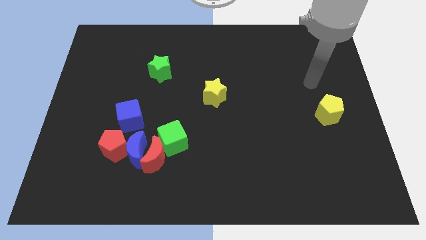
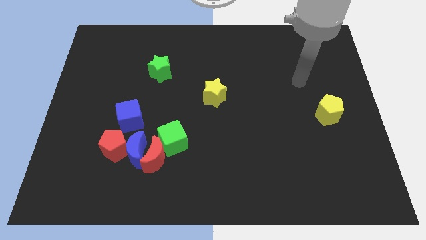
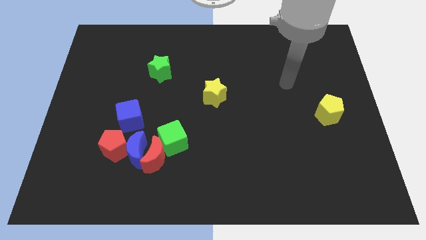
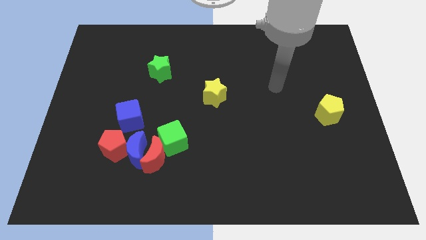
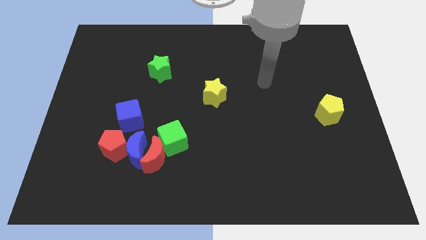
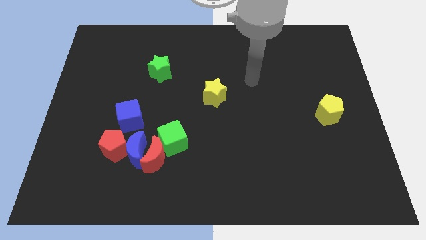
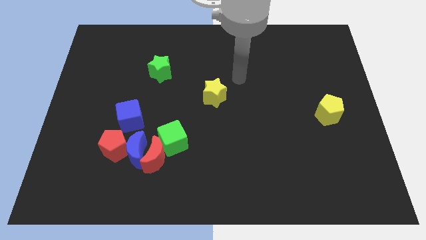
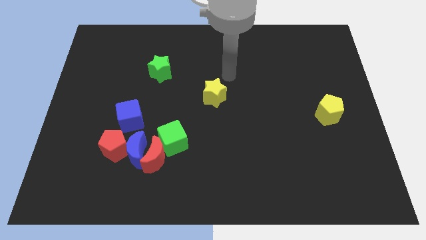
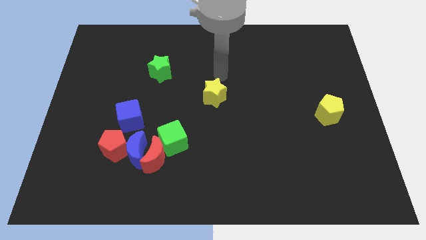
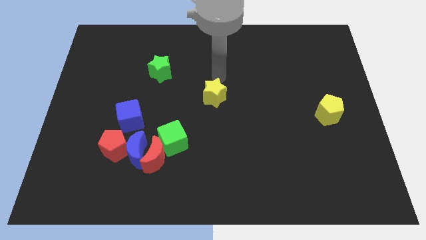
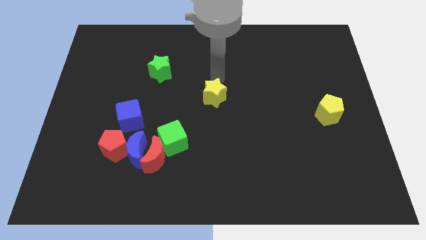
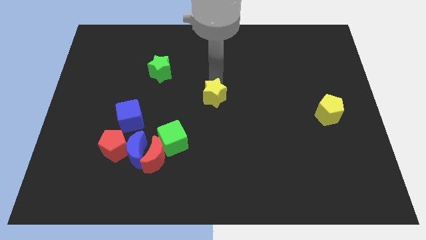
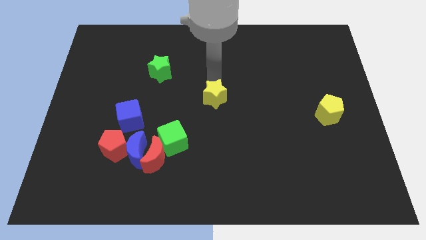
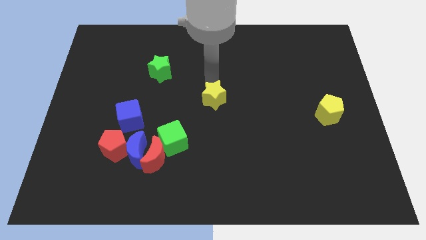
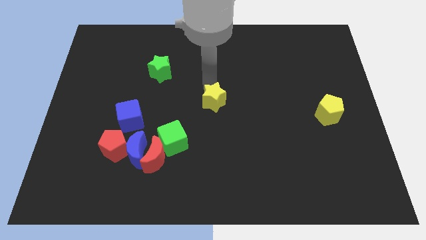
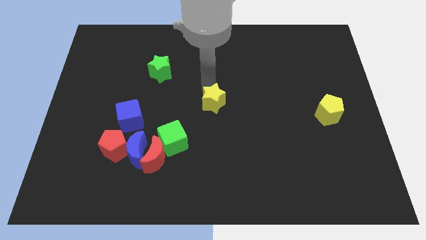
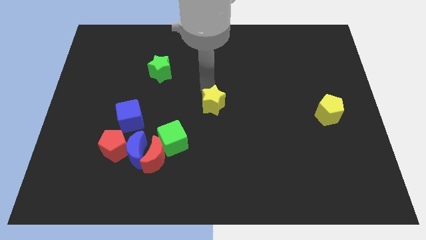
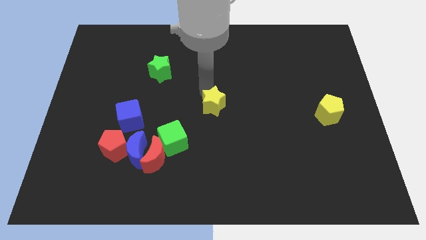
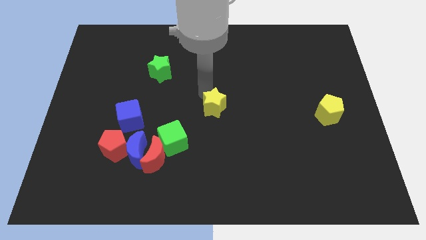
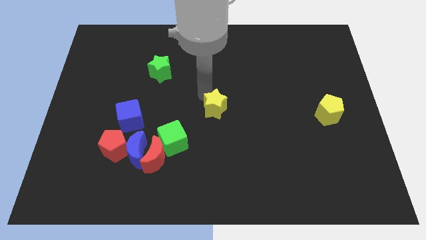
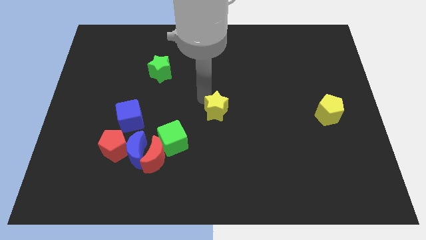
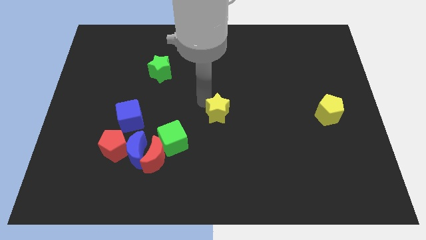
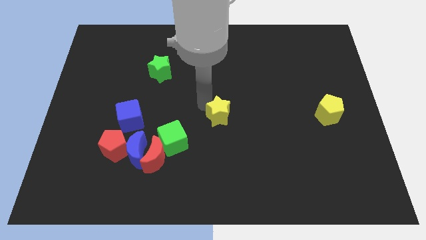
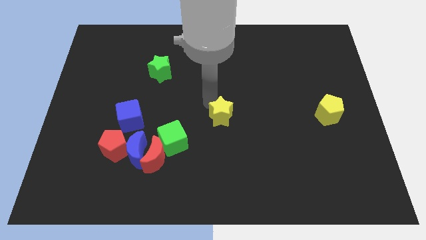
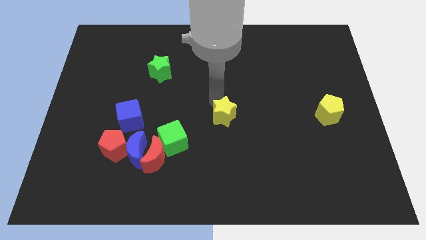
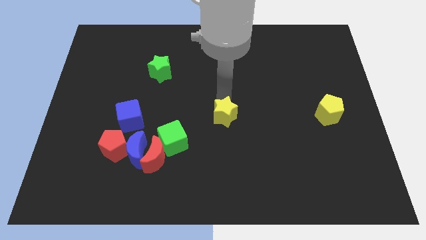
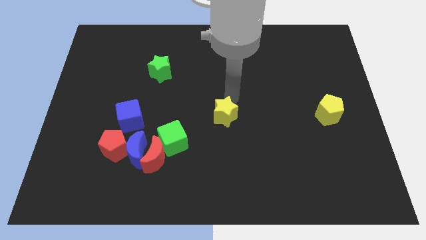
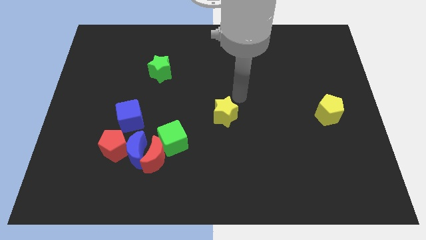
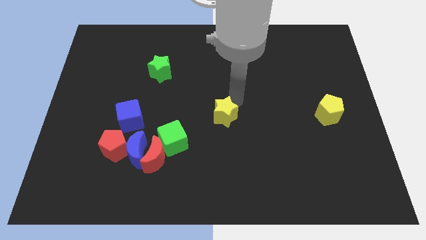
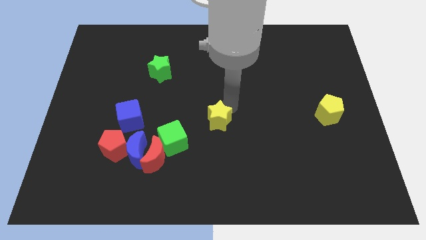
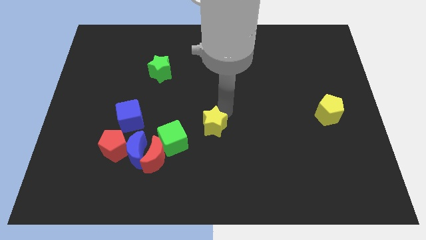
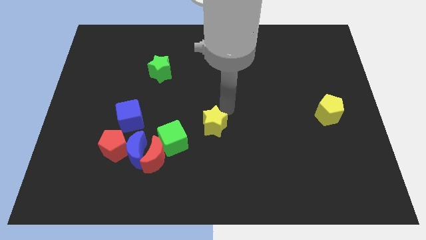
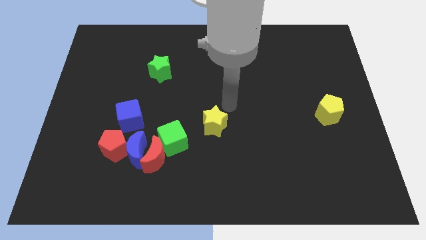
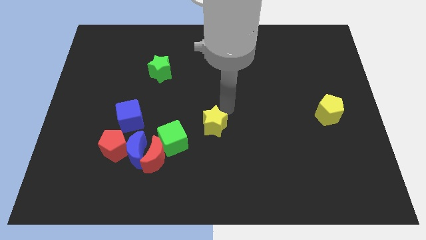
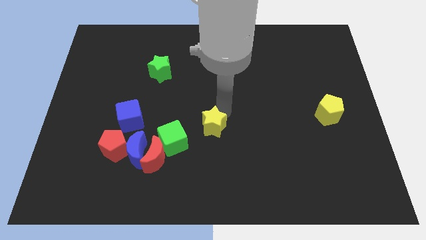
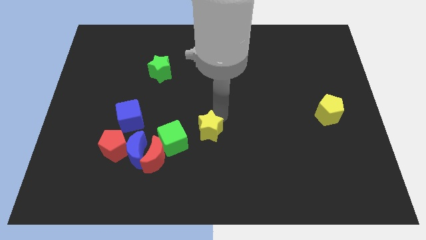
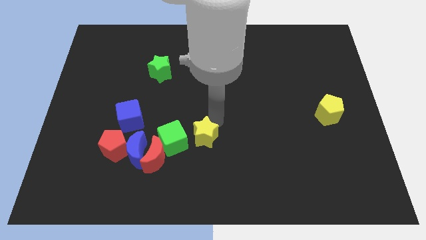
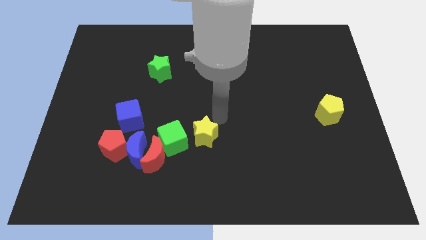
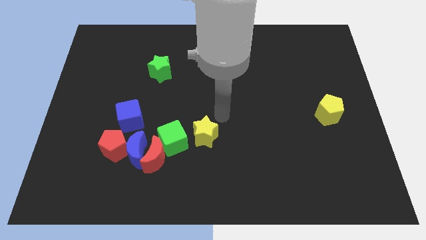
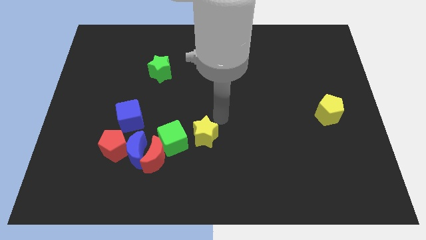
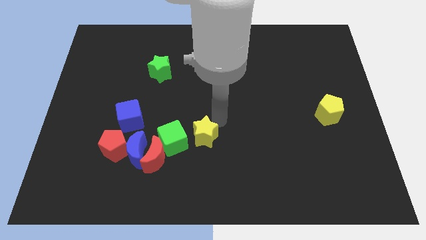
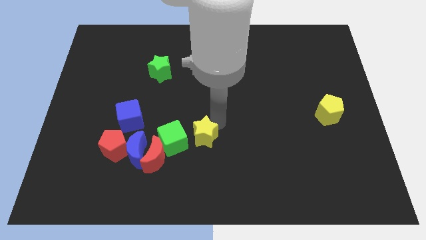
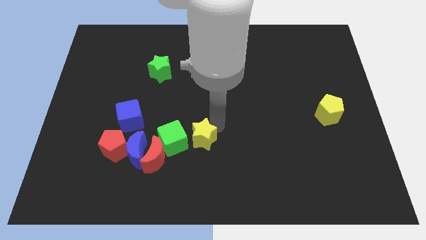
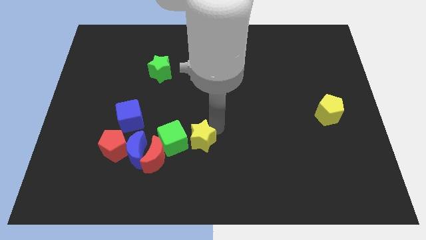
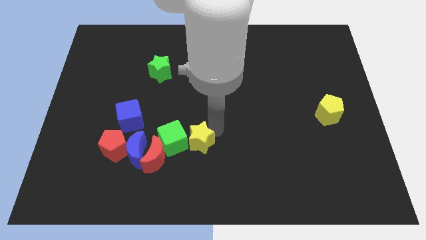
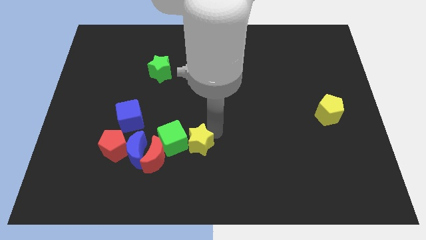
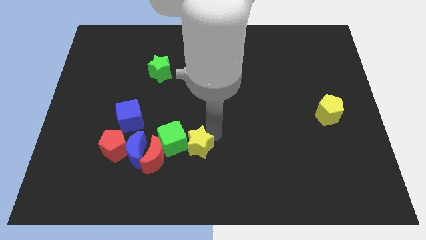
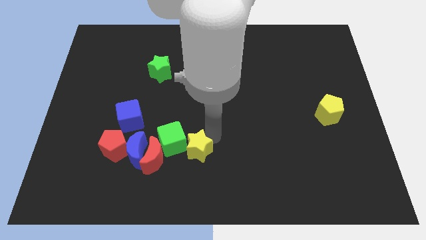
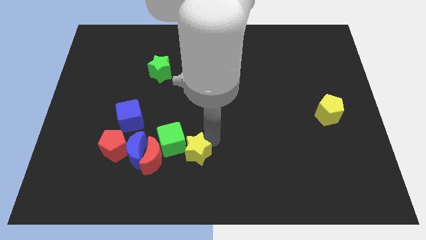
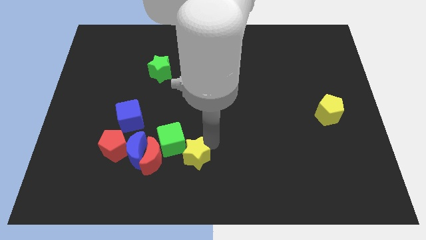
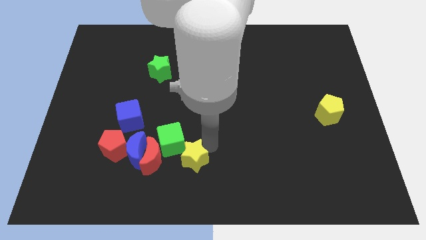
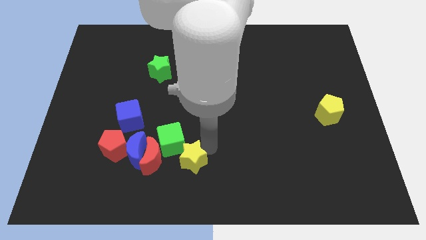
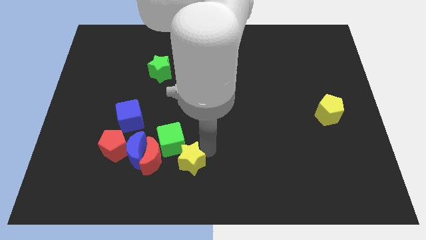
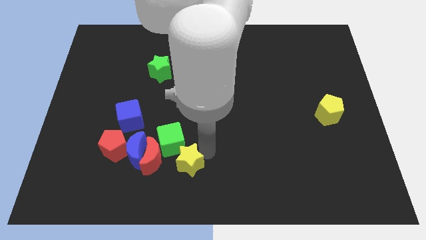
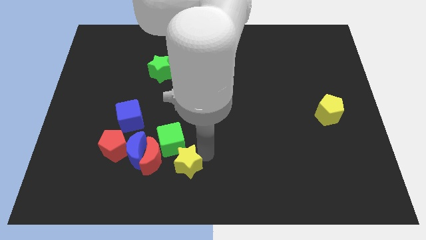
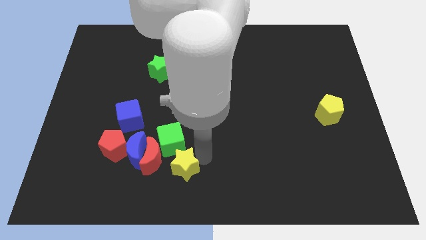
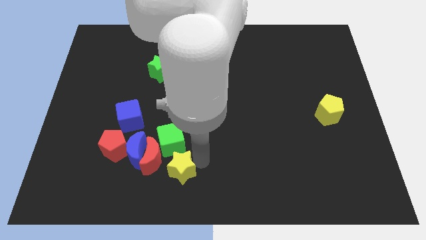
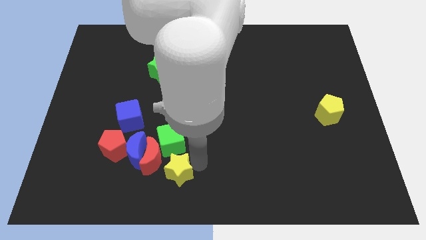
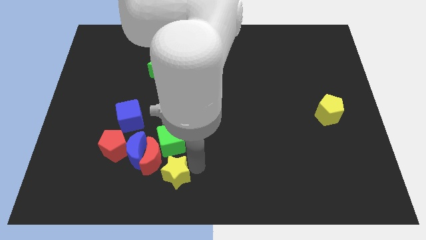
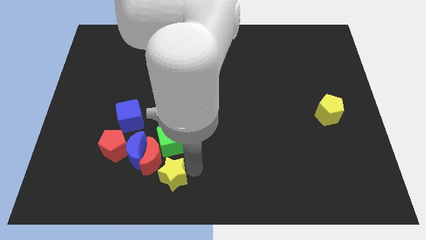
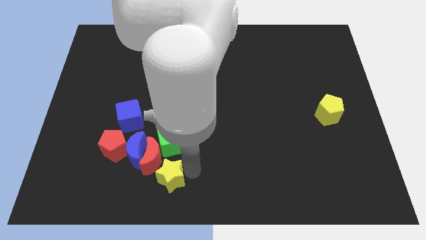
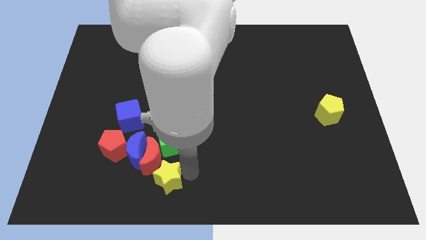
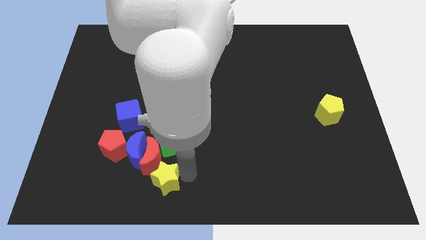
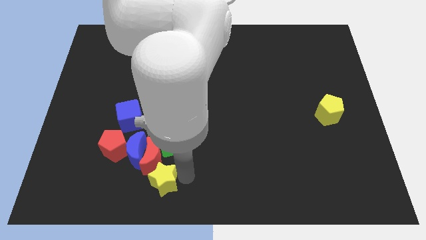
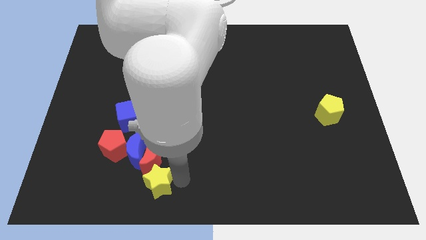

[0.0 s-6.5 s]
move the yellow star downwards and to the left diagonally

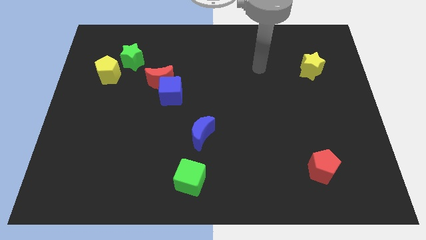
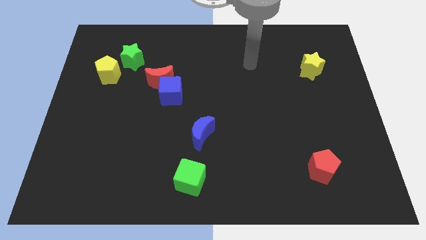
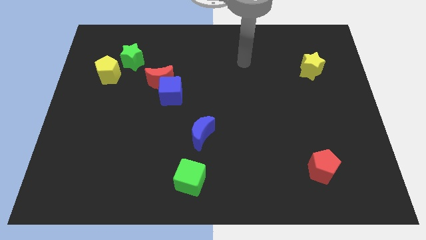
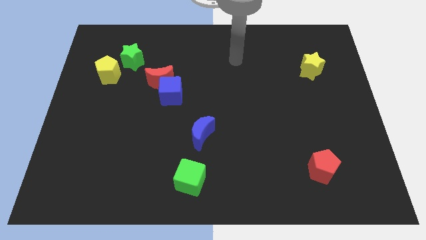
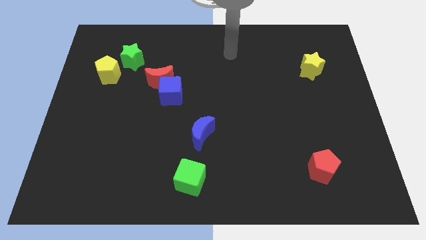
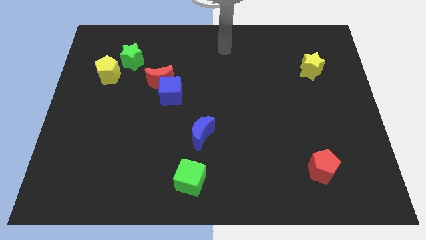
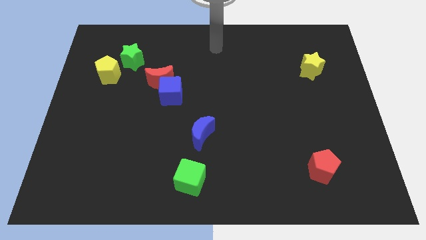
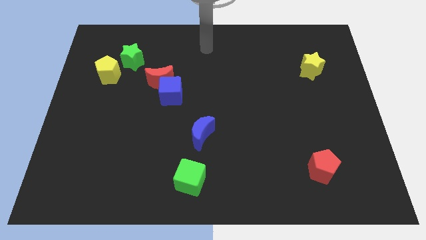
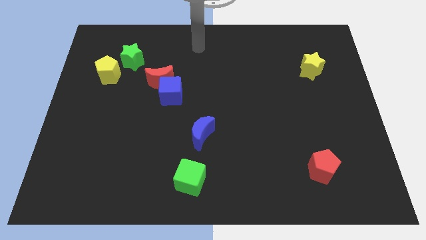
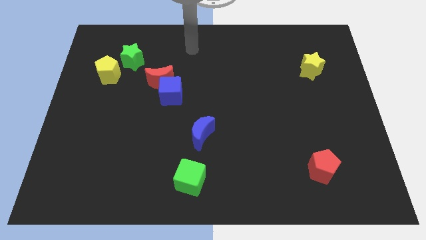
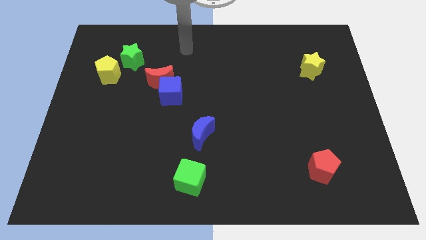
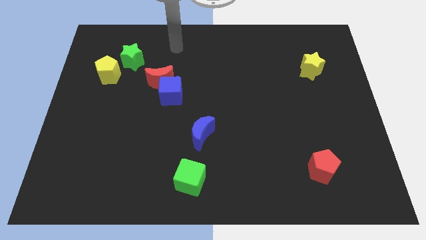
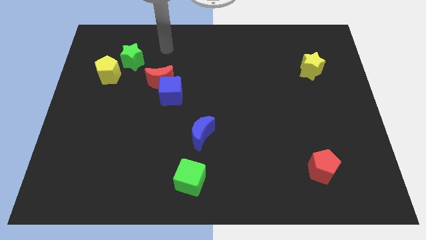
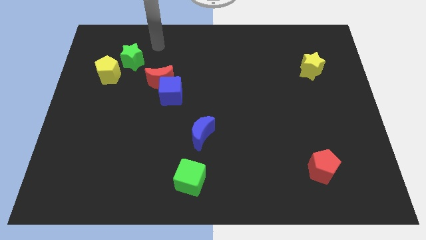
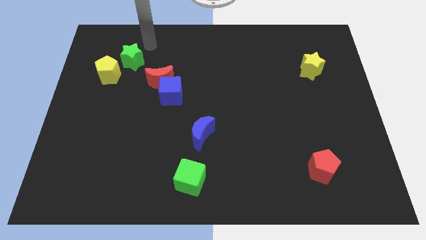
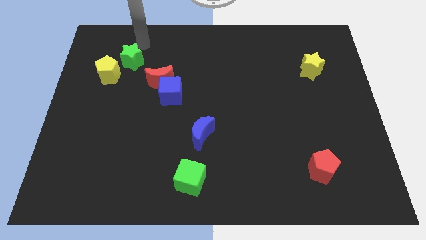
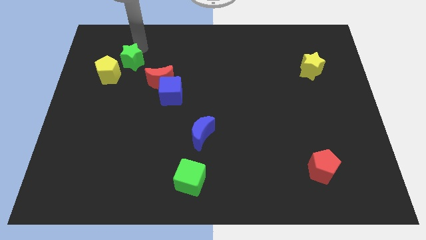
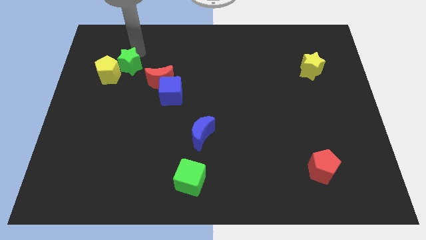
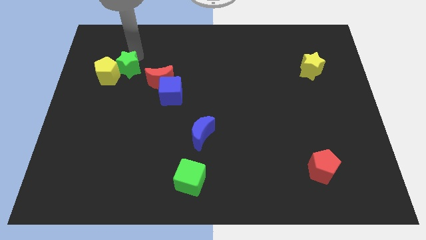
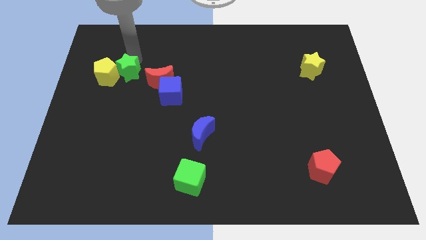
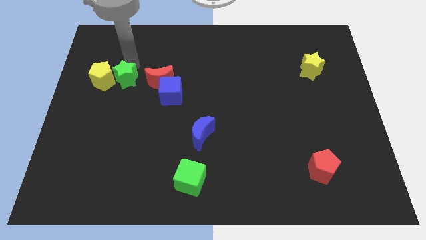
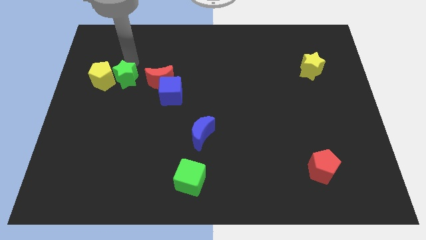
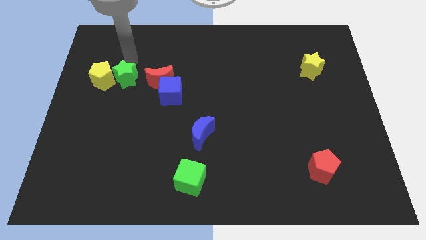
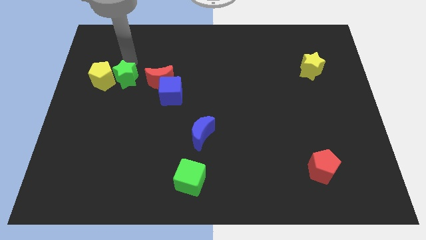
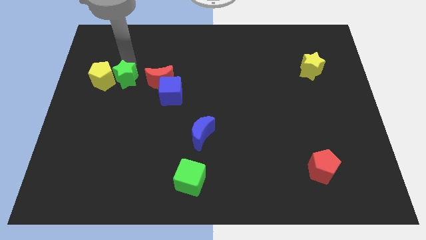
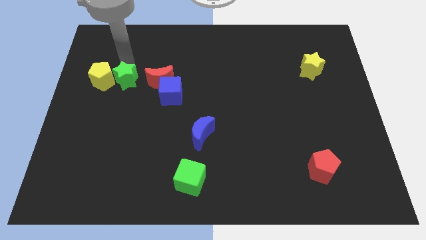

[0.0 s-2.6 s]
slightly slide the green star down
